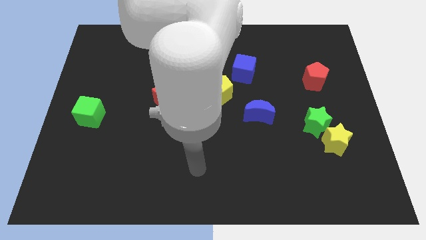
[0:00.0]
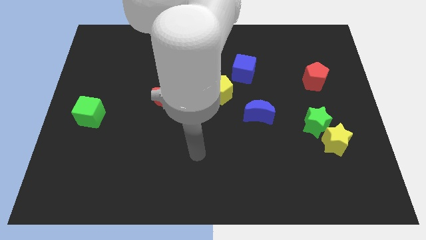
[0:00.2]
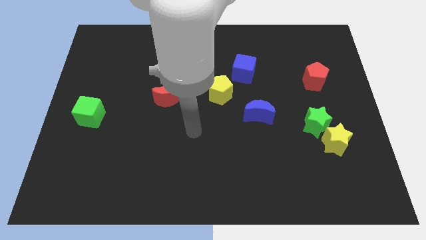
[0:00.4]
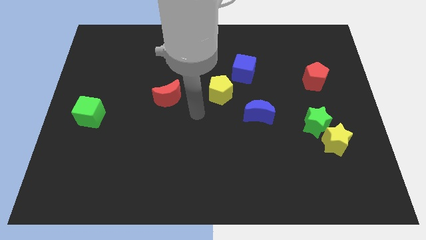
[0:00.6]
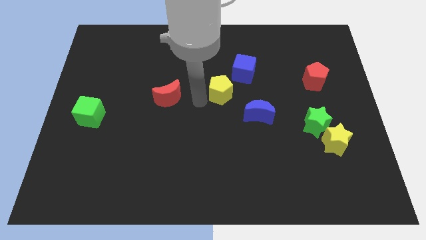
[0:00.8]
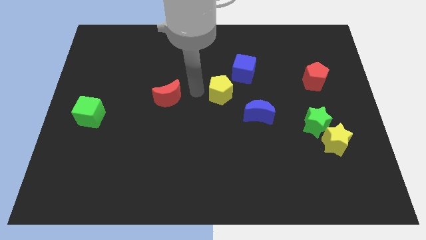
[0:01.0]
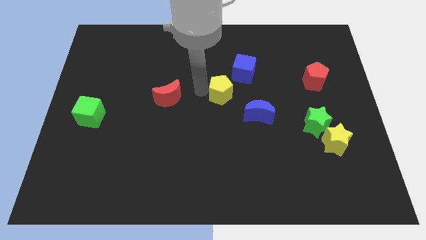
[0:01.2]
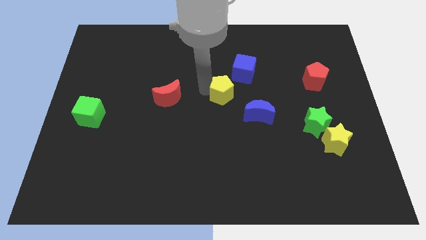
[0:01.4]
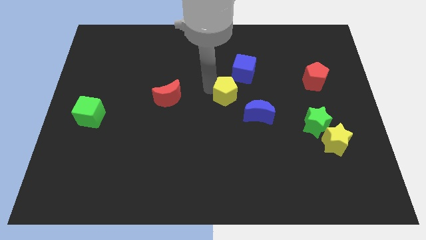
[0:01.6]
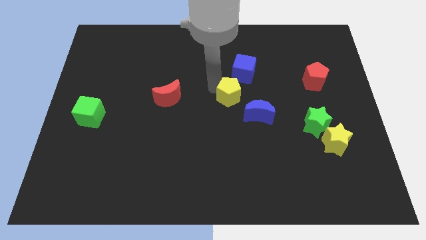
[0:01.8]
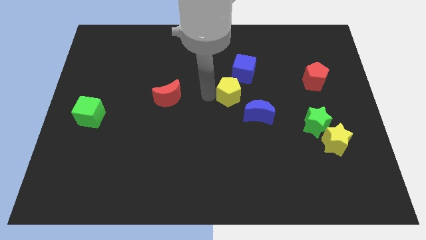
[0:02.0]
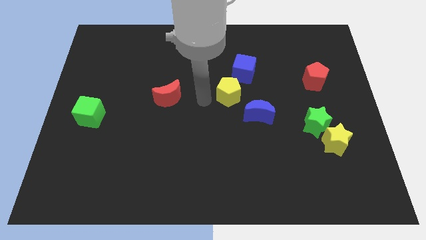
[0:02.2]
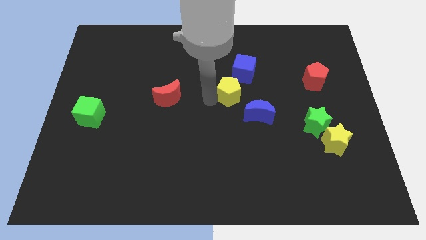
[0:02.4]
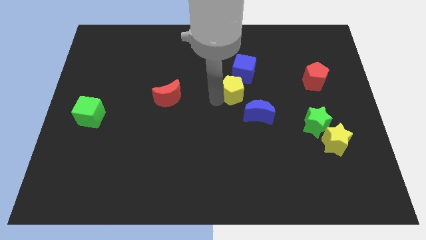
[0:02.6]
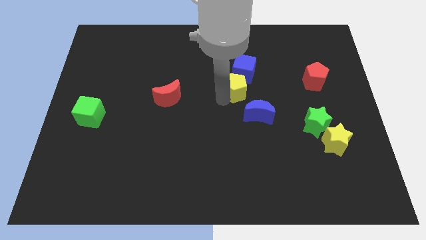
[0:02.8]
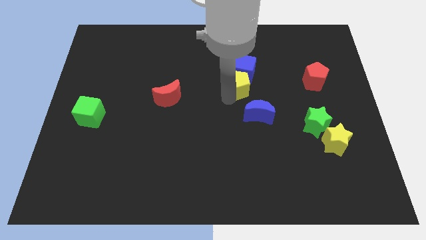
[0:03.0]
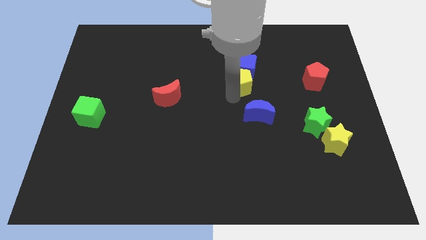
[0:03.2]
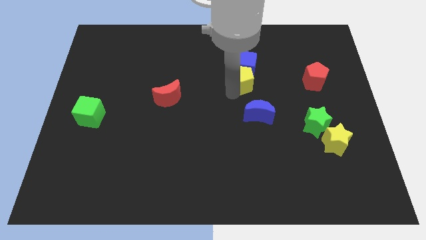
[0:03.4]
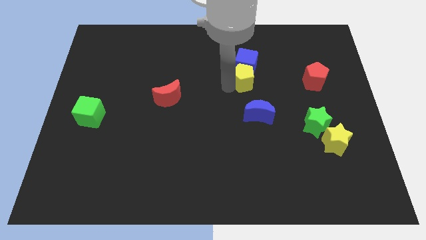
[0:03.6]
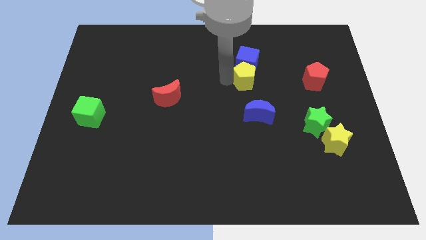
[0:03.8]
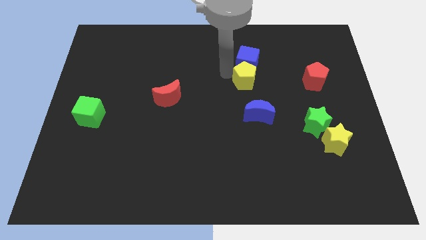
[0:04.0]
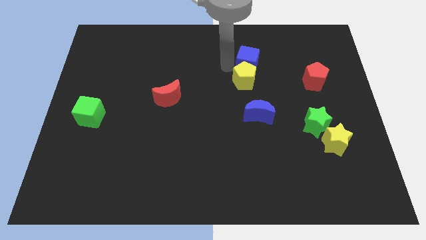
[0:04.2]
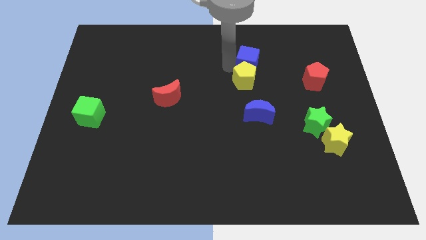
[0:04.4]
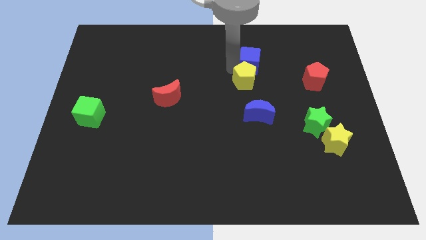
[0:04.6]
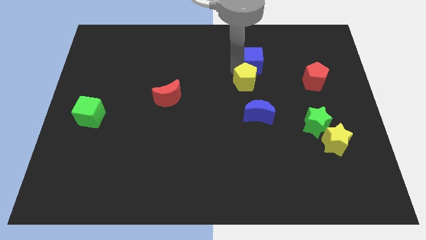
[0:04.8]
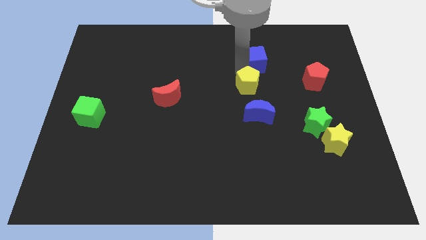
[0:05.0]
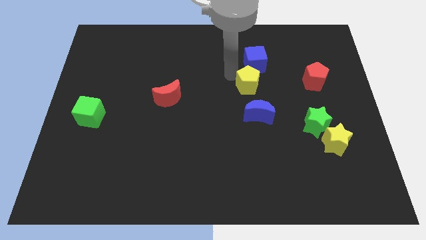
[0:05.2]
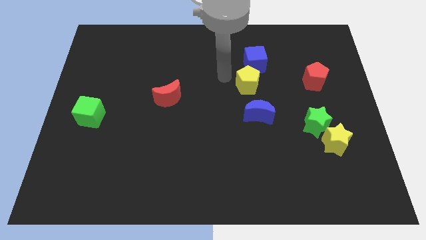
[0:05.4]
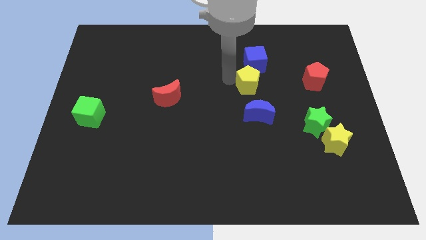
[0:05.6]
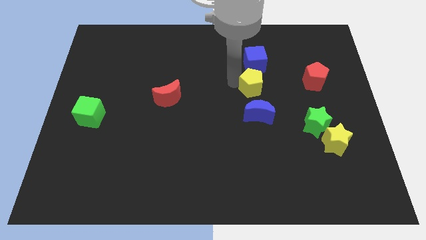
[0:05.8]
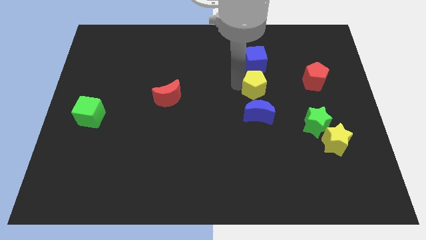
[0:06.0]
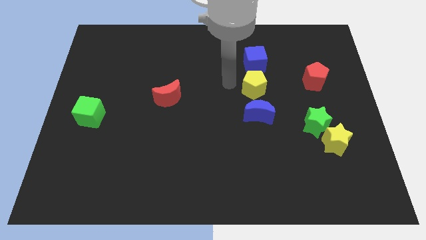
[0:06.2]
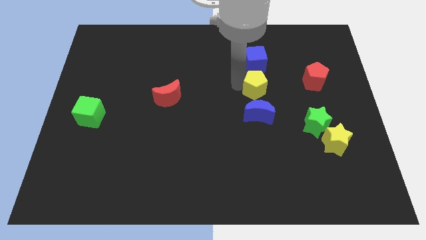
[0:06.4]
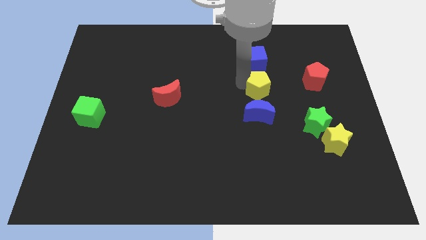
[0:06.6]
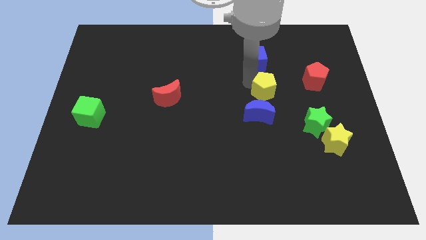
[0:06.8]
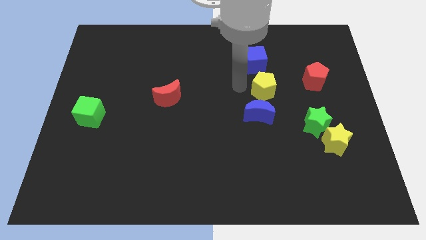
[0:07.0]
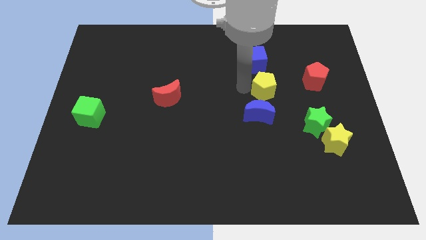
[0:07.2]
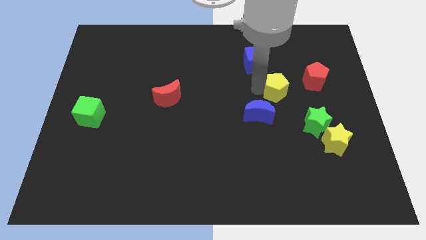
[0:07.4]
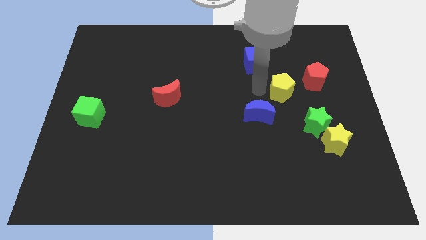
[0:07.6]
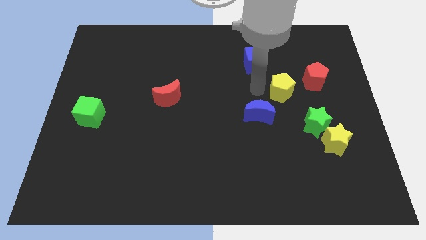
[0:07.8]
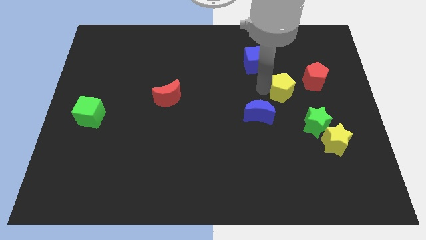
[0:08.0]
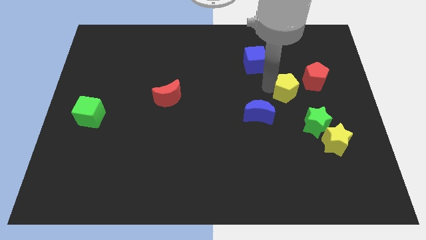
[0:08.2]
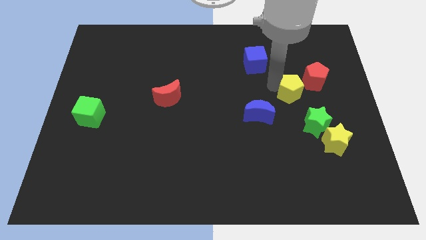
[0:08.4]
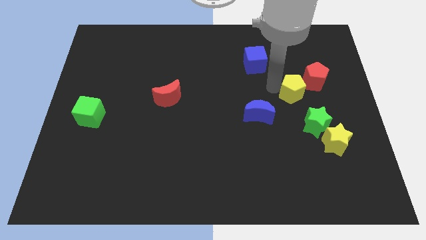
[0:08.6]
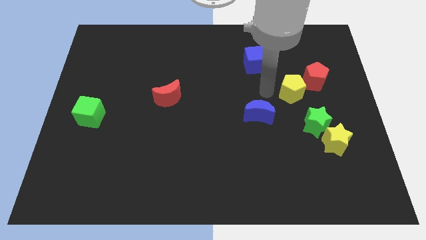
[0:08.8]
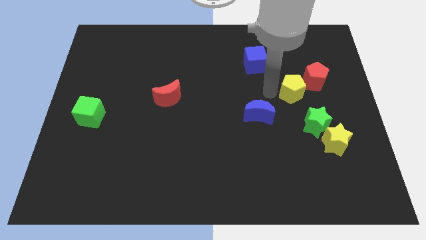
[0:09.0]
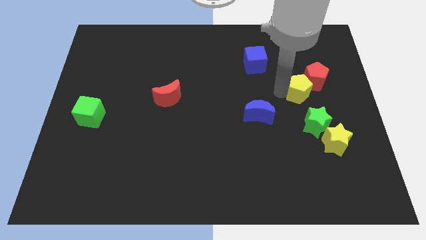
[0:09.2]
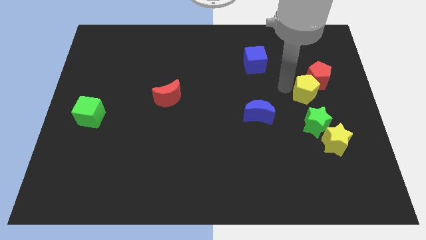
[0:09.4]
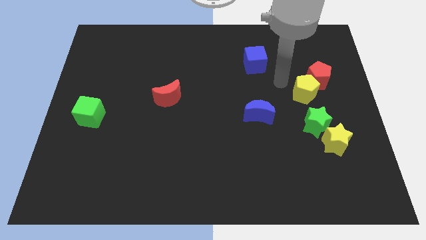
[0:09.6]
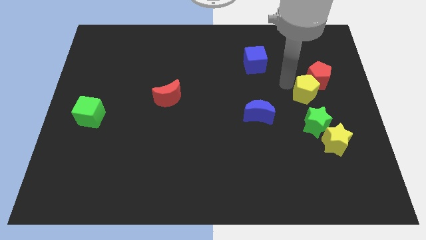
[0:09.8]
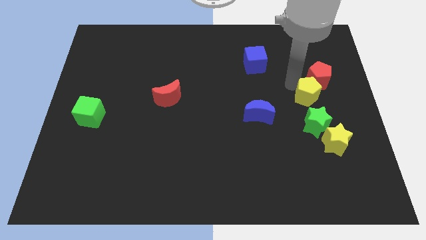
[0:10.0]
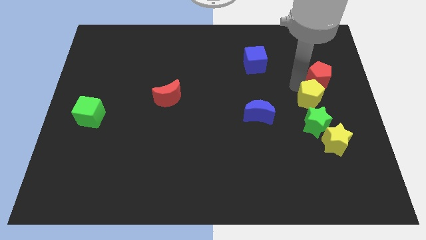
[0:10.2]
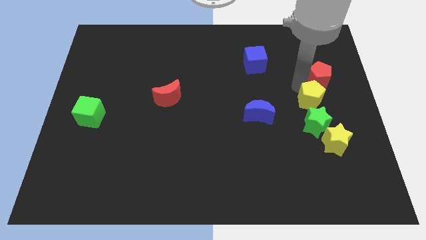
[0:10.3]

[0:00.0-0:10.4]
push the yellow pentagon right of the blue moon

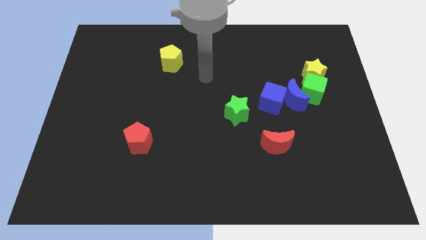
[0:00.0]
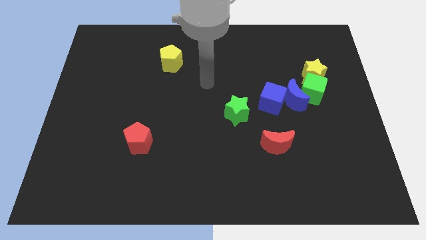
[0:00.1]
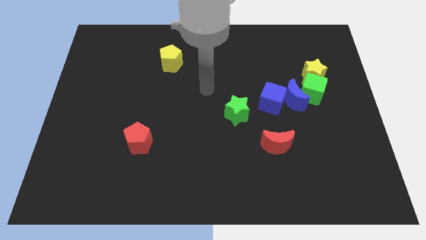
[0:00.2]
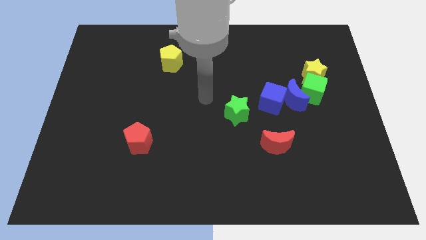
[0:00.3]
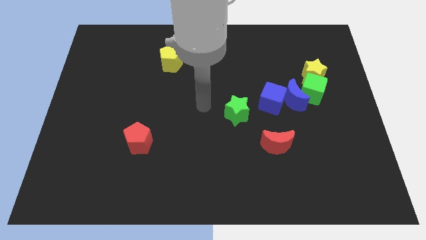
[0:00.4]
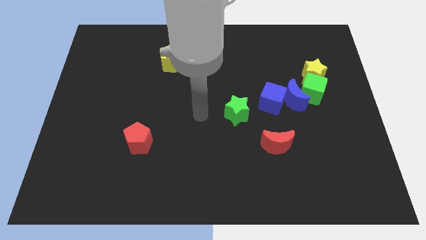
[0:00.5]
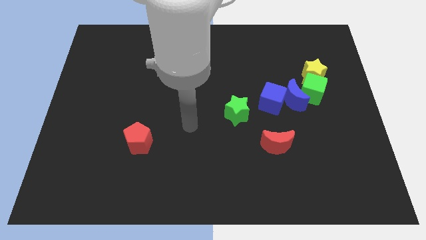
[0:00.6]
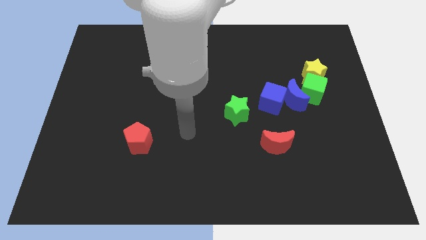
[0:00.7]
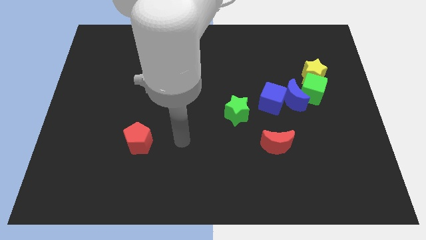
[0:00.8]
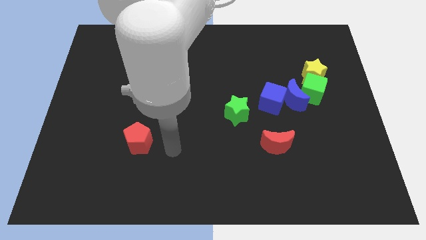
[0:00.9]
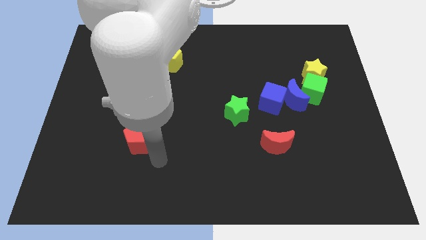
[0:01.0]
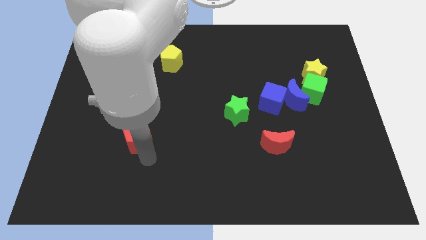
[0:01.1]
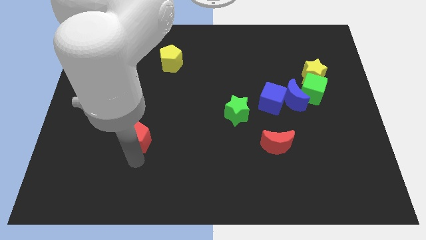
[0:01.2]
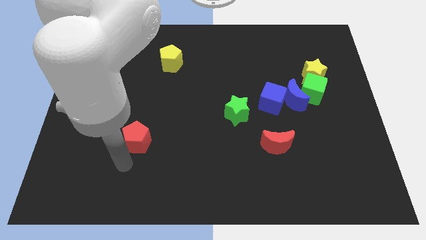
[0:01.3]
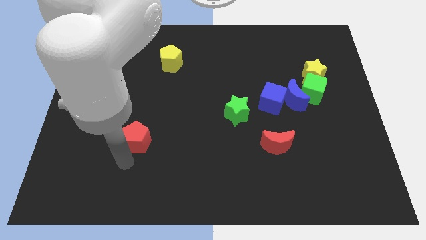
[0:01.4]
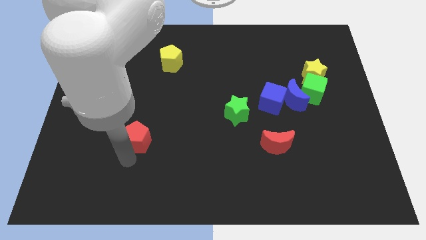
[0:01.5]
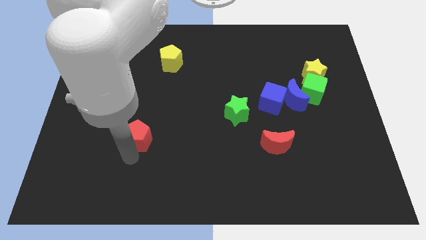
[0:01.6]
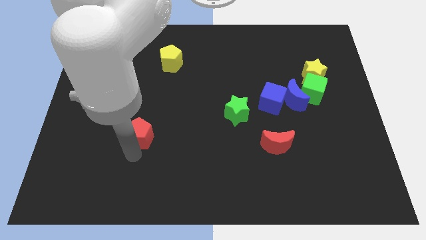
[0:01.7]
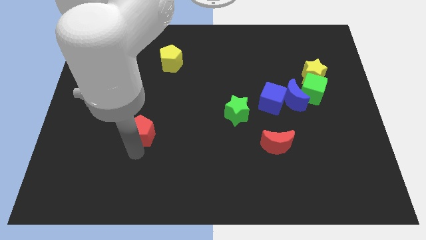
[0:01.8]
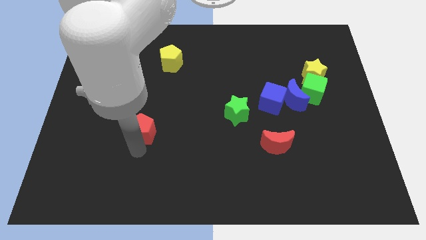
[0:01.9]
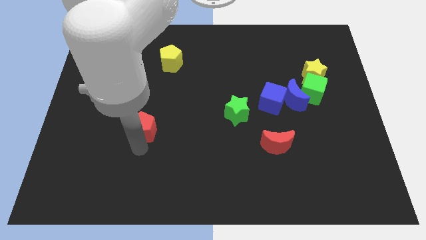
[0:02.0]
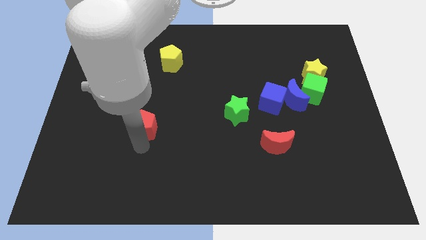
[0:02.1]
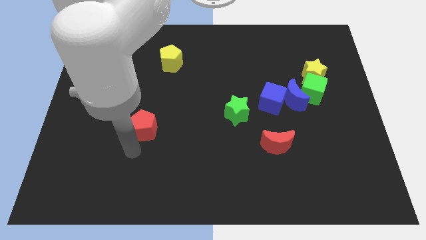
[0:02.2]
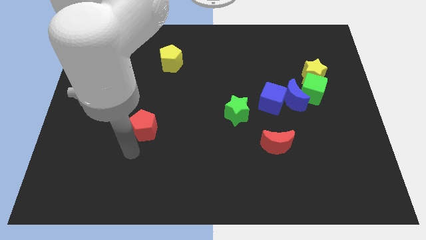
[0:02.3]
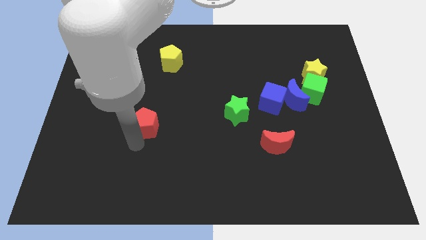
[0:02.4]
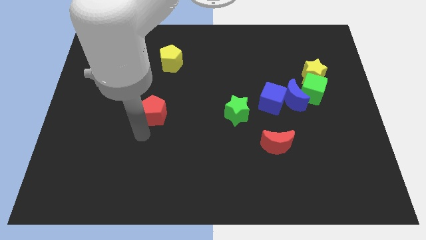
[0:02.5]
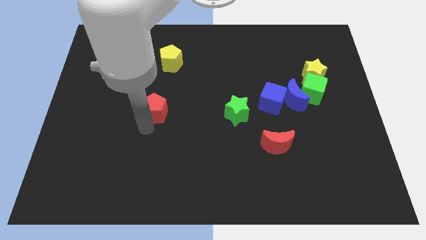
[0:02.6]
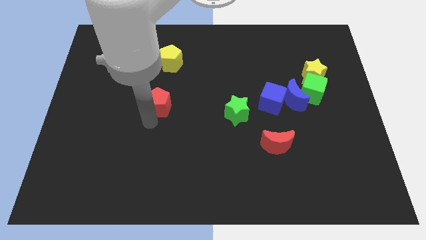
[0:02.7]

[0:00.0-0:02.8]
move the red pentagon below the yellow pentagon
